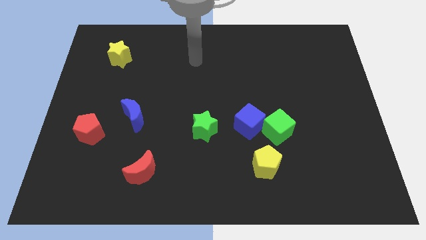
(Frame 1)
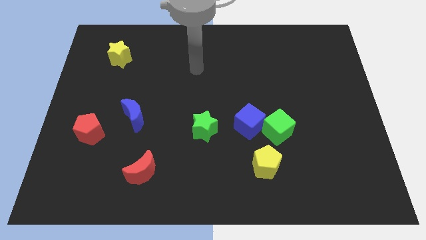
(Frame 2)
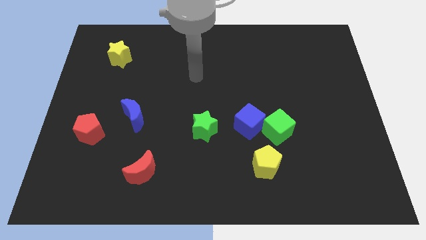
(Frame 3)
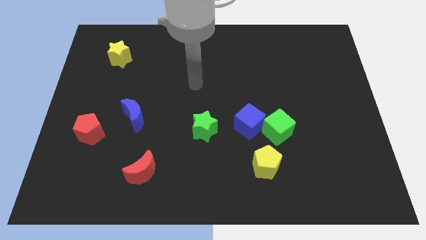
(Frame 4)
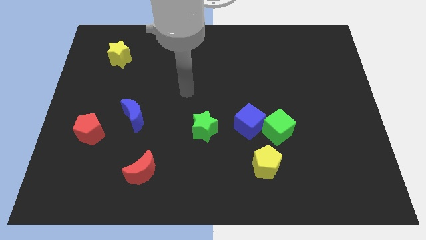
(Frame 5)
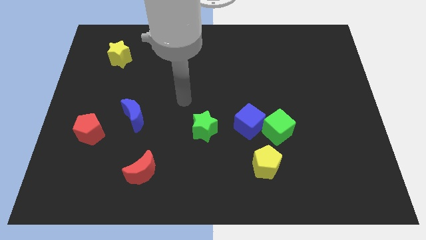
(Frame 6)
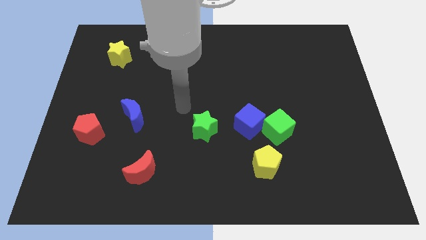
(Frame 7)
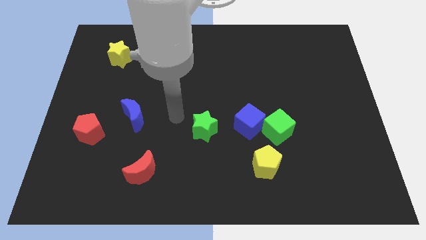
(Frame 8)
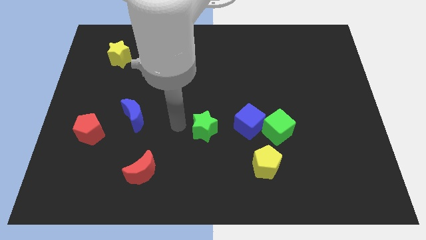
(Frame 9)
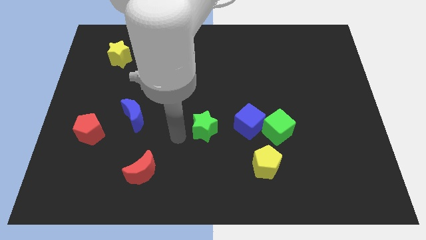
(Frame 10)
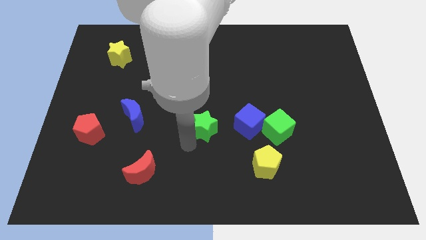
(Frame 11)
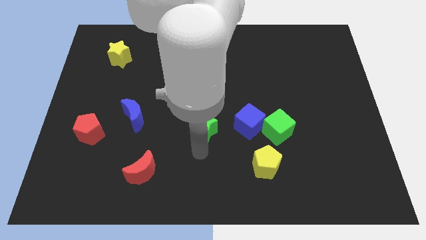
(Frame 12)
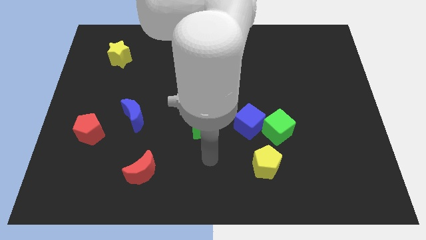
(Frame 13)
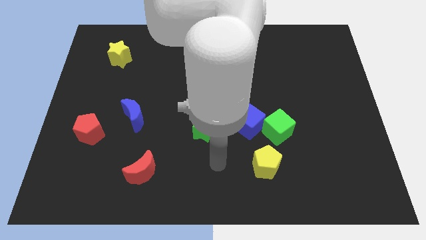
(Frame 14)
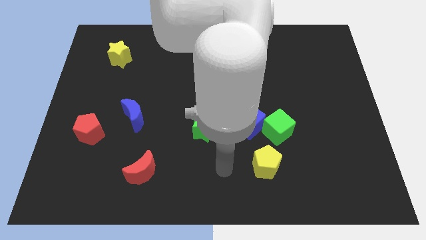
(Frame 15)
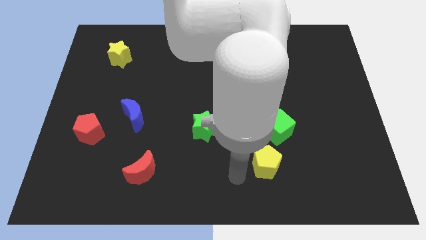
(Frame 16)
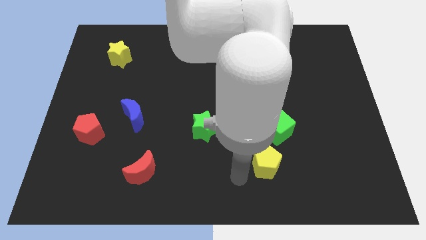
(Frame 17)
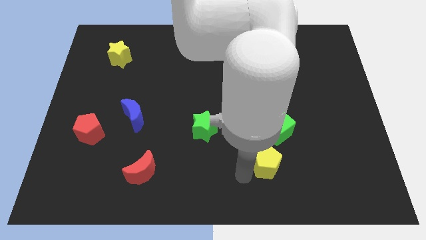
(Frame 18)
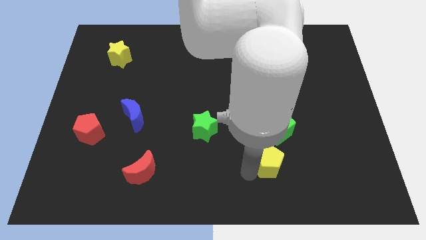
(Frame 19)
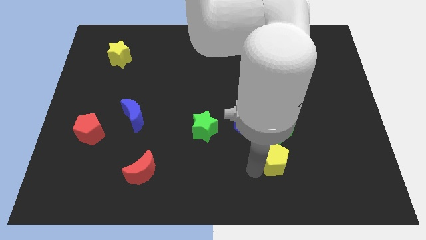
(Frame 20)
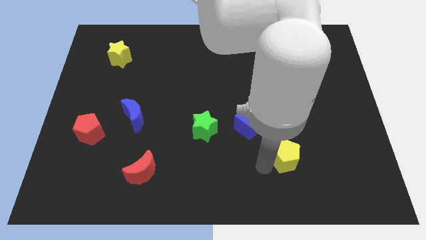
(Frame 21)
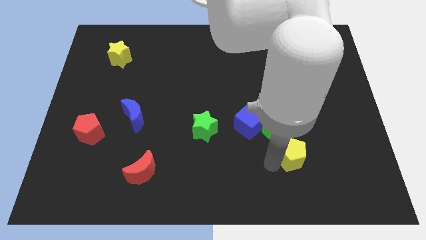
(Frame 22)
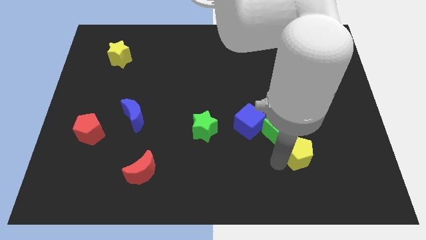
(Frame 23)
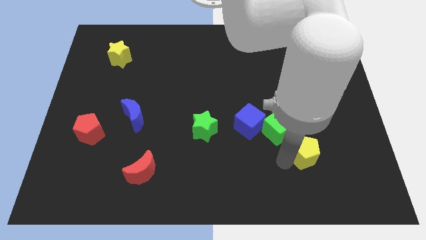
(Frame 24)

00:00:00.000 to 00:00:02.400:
push the yellow pentagon up and then right a little bit

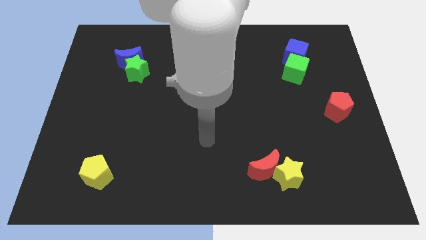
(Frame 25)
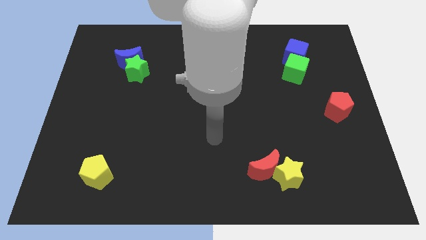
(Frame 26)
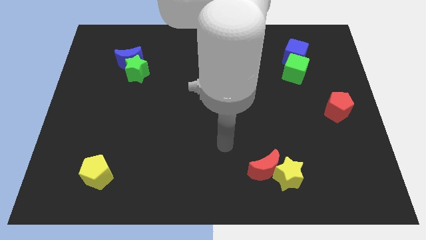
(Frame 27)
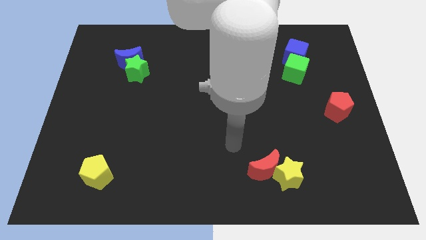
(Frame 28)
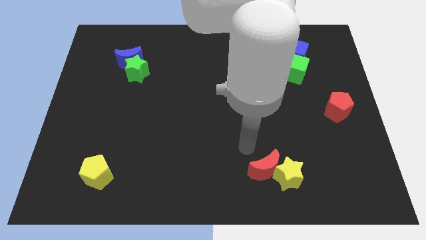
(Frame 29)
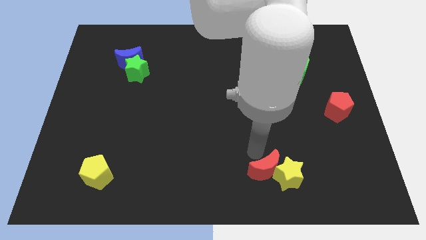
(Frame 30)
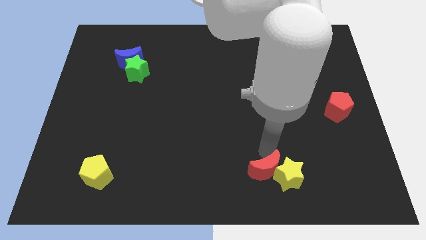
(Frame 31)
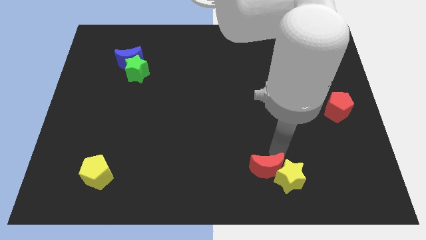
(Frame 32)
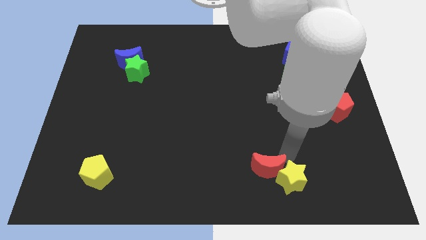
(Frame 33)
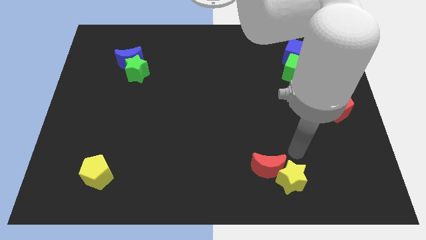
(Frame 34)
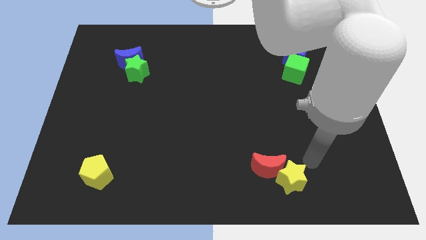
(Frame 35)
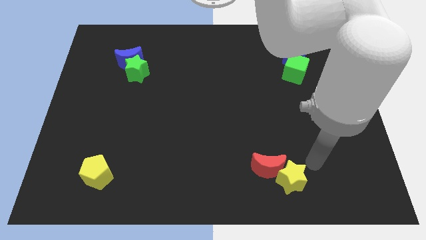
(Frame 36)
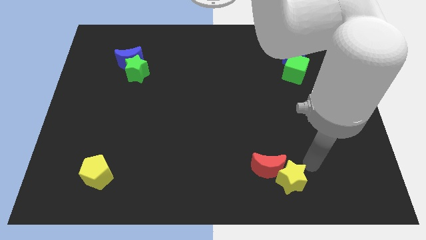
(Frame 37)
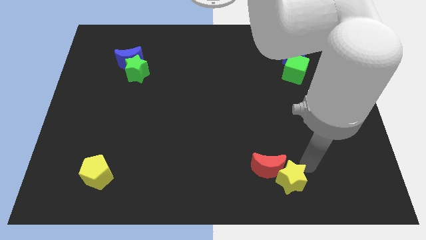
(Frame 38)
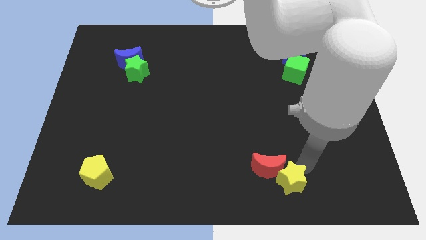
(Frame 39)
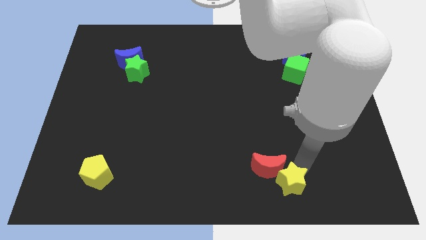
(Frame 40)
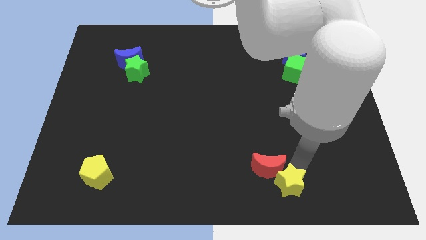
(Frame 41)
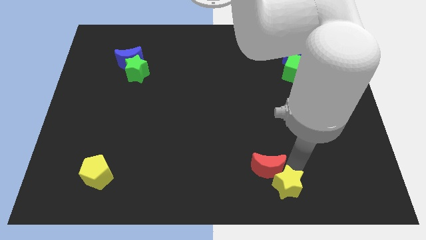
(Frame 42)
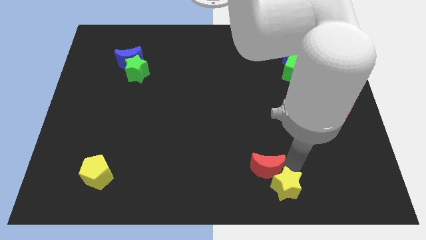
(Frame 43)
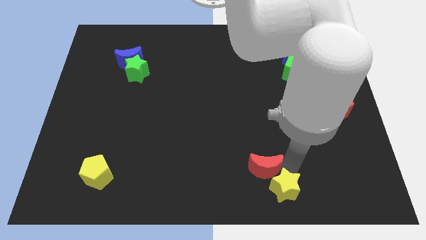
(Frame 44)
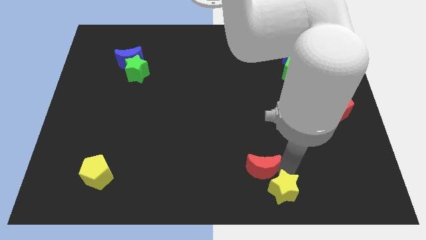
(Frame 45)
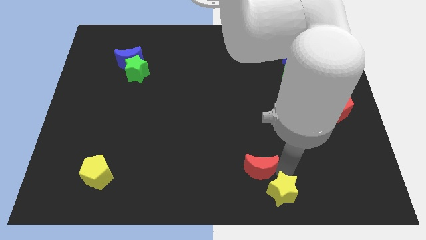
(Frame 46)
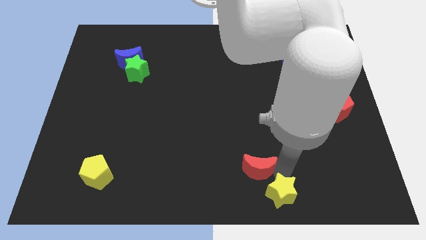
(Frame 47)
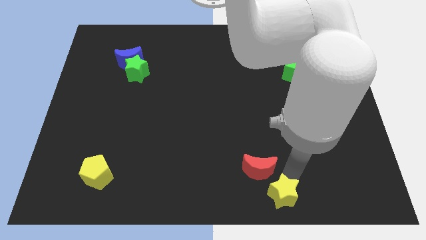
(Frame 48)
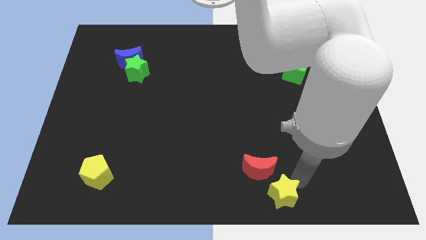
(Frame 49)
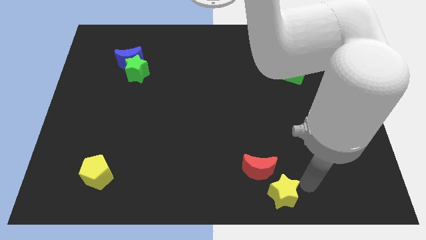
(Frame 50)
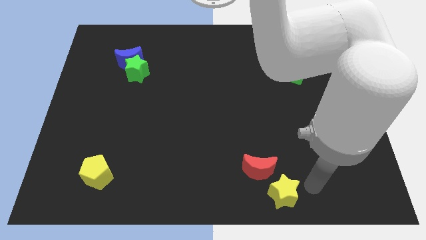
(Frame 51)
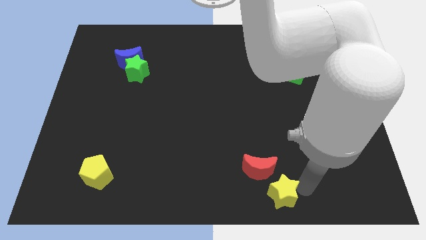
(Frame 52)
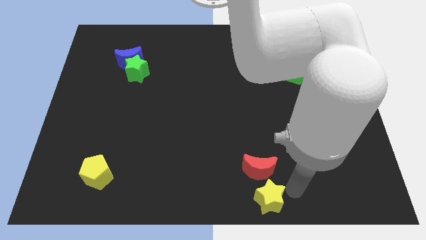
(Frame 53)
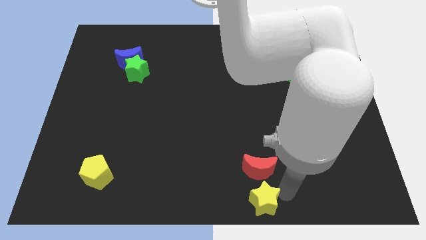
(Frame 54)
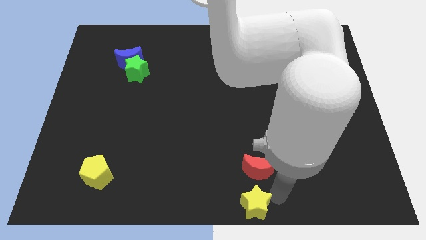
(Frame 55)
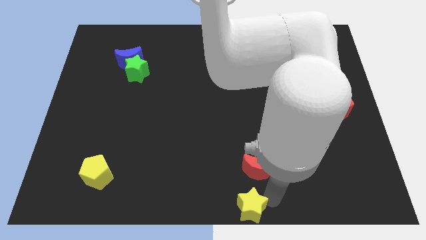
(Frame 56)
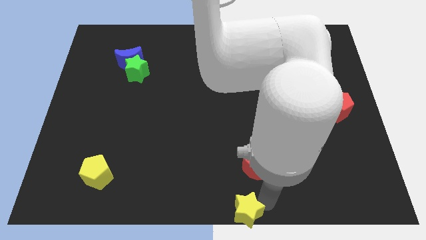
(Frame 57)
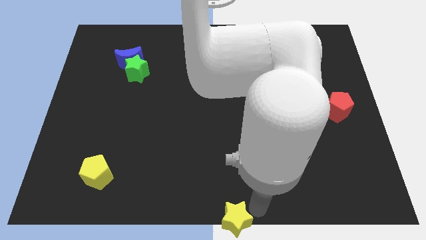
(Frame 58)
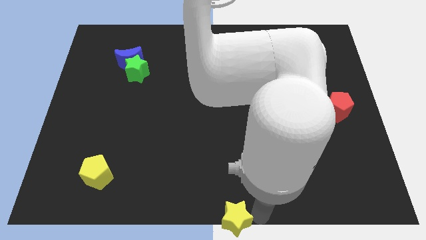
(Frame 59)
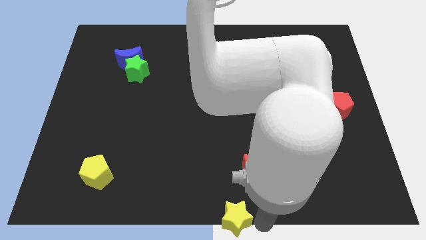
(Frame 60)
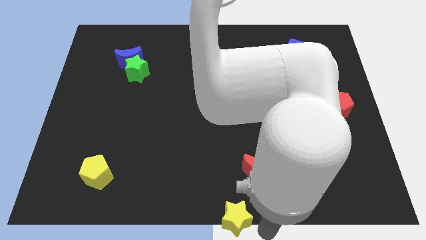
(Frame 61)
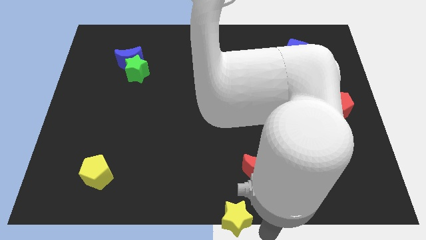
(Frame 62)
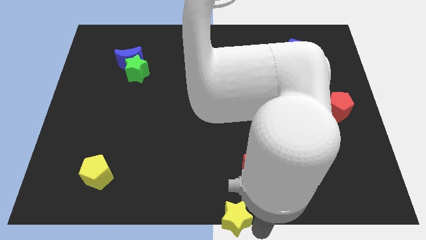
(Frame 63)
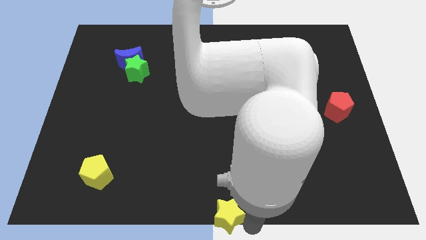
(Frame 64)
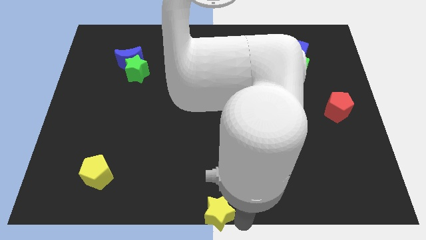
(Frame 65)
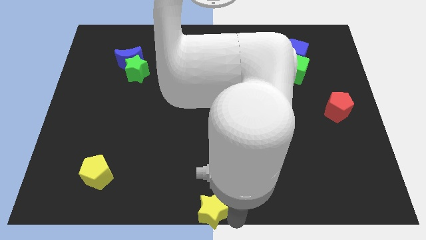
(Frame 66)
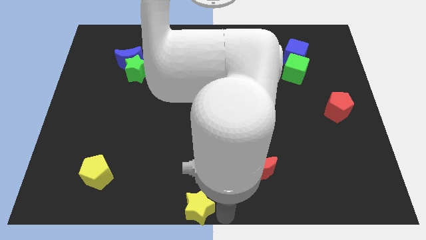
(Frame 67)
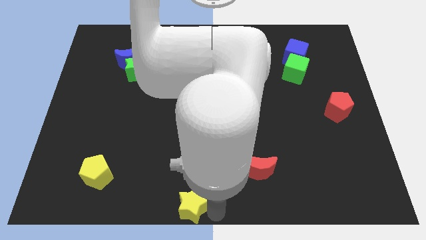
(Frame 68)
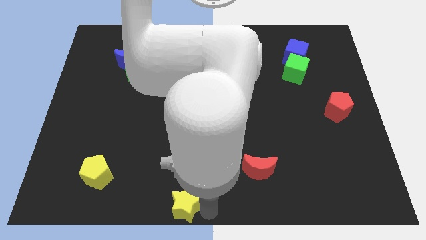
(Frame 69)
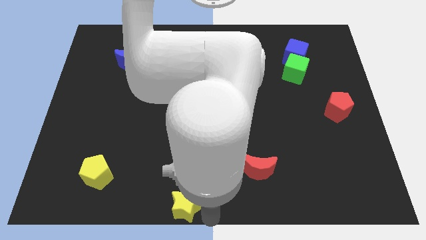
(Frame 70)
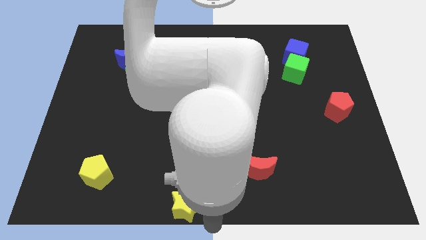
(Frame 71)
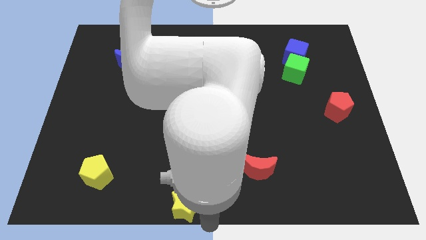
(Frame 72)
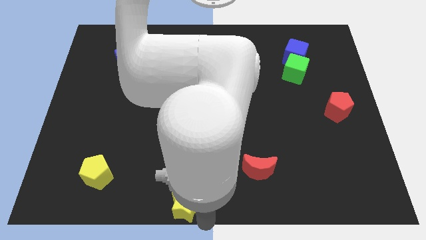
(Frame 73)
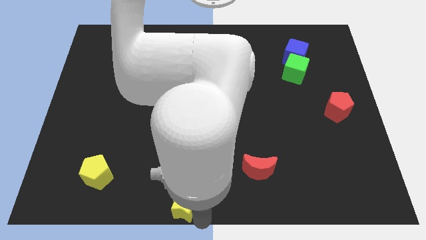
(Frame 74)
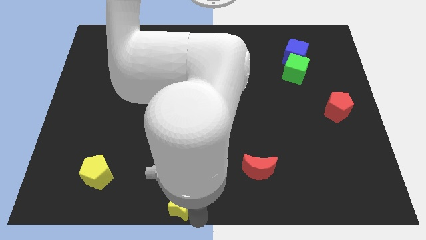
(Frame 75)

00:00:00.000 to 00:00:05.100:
slide the yellow star left

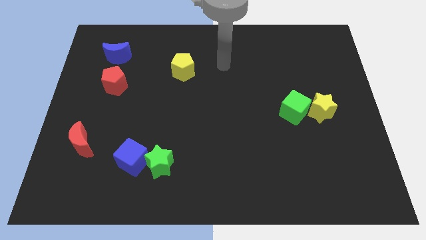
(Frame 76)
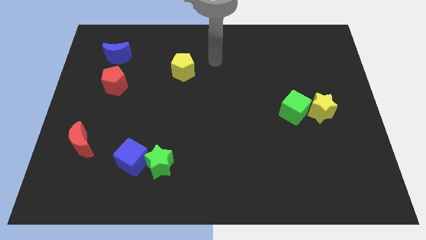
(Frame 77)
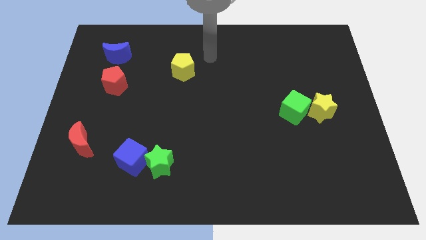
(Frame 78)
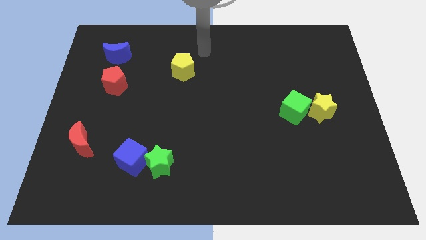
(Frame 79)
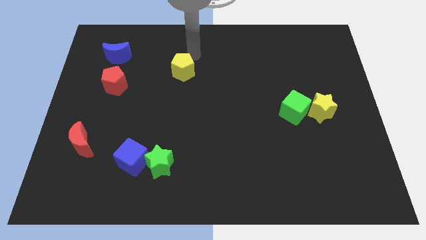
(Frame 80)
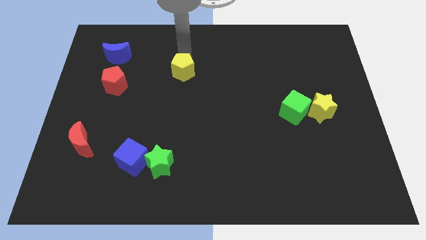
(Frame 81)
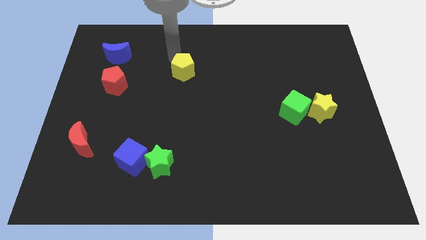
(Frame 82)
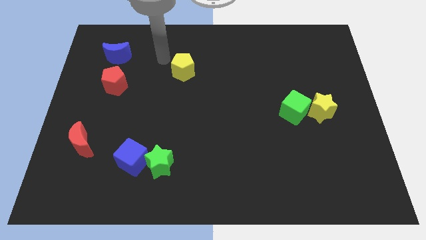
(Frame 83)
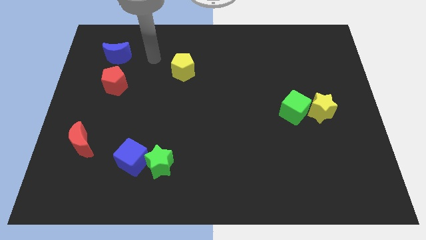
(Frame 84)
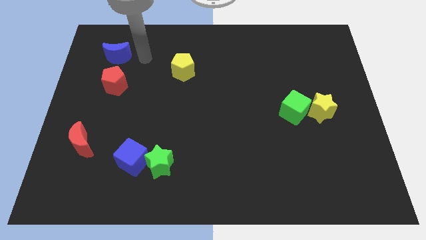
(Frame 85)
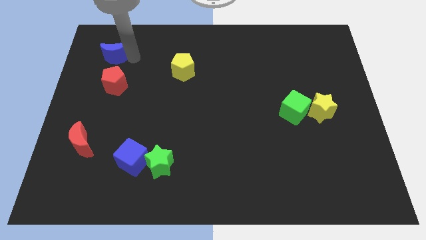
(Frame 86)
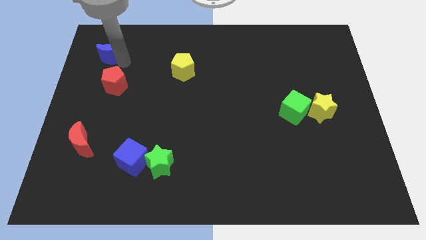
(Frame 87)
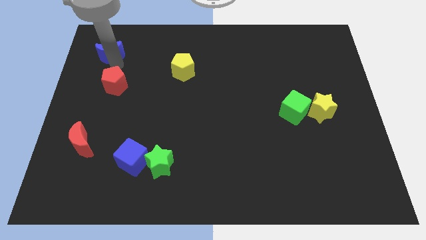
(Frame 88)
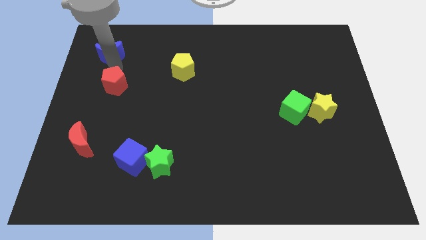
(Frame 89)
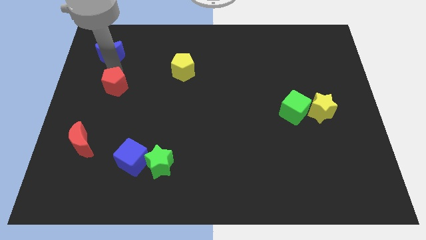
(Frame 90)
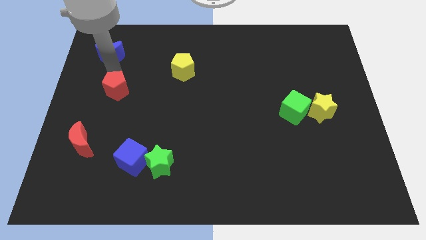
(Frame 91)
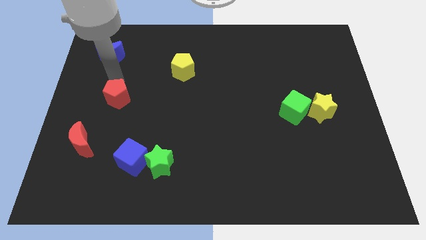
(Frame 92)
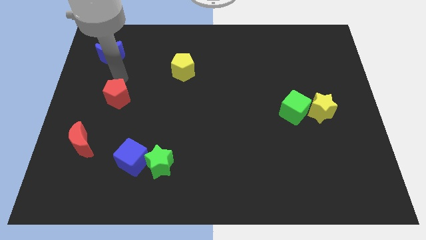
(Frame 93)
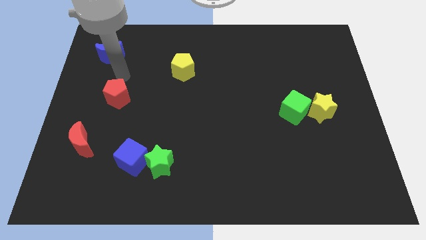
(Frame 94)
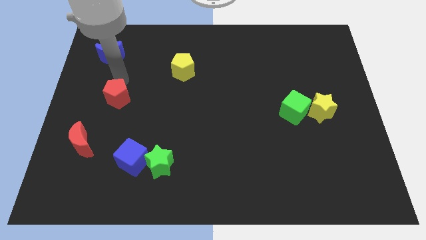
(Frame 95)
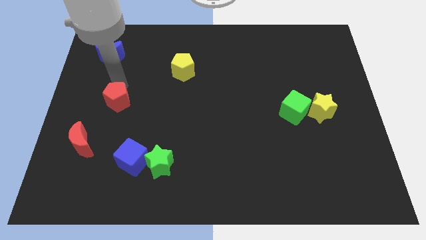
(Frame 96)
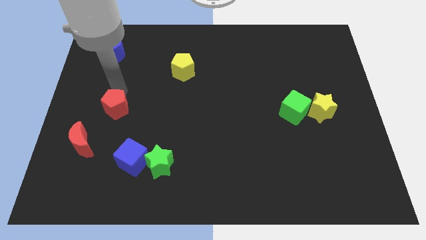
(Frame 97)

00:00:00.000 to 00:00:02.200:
push the red pentagon slightly down
